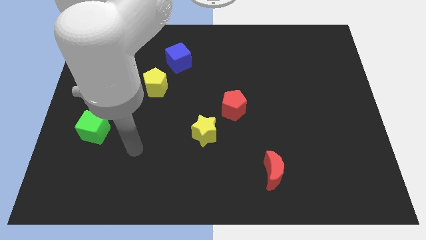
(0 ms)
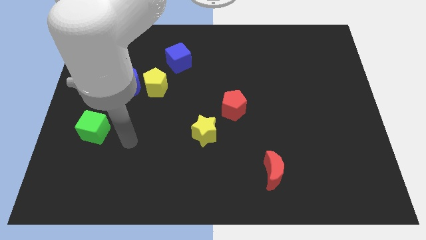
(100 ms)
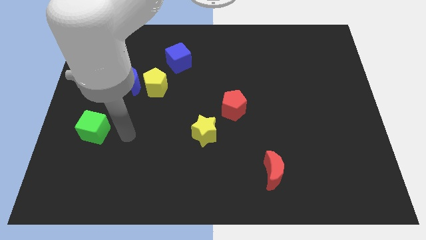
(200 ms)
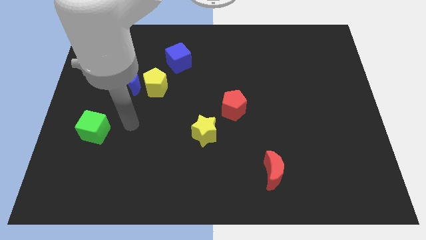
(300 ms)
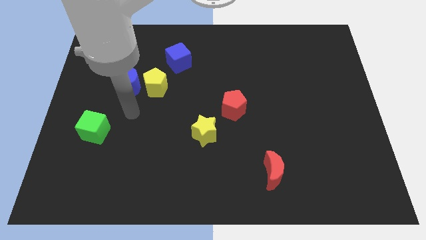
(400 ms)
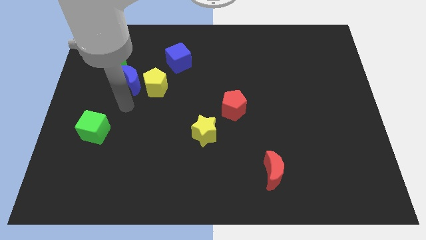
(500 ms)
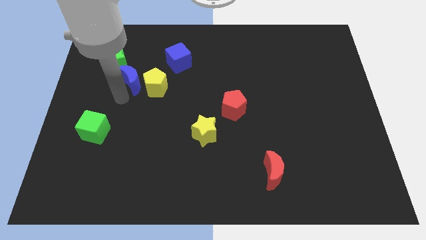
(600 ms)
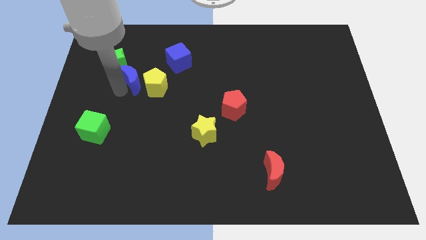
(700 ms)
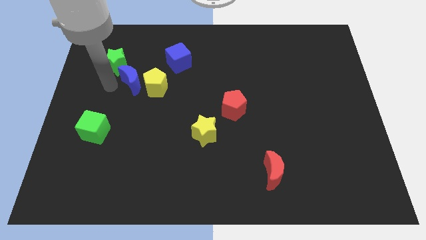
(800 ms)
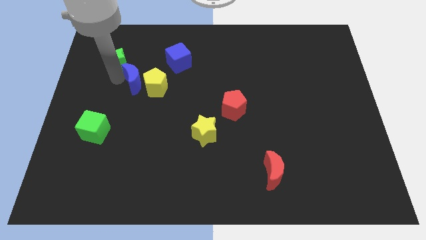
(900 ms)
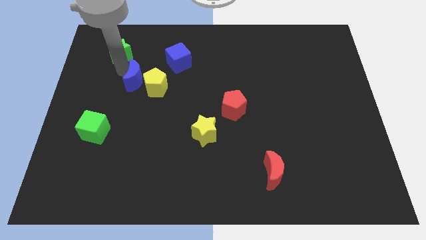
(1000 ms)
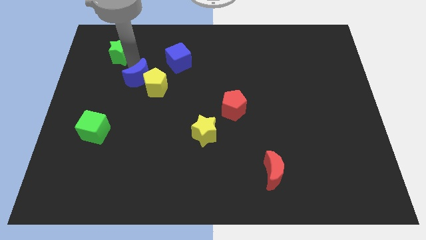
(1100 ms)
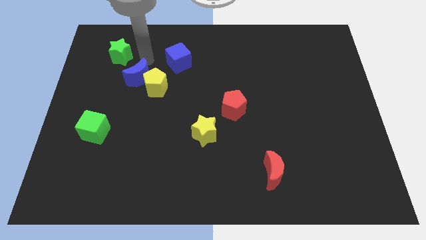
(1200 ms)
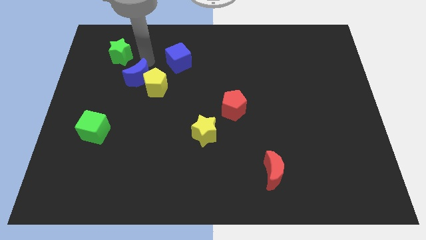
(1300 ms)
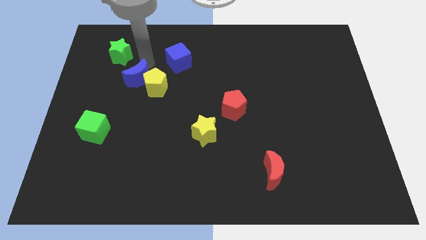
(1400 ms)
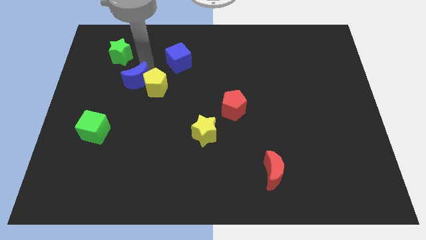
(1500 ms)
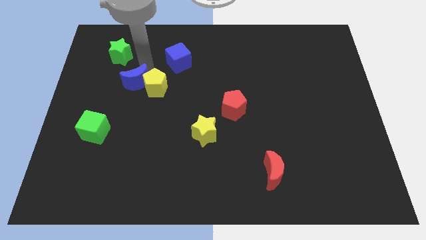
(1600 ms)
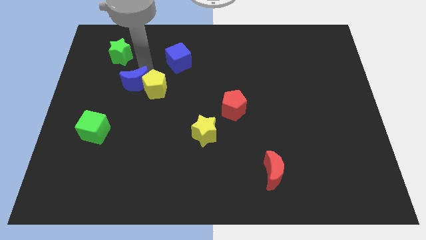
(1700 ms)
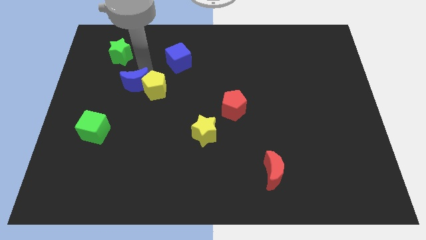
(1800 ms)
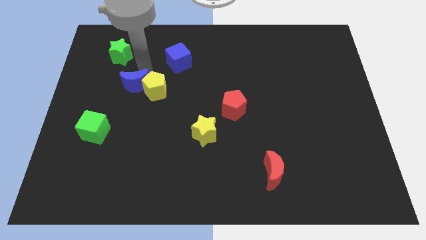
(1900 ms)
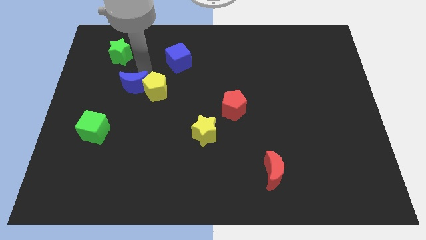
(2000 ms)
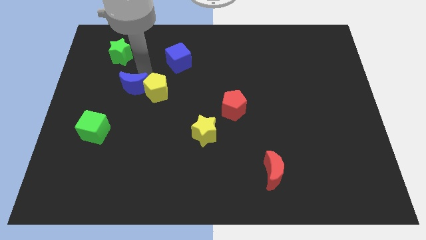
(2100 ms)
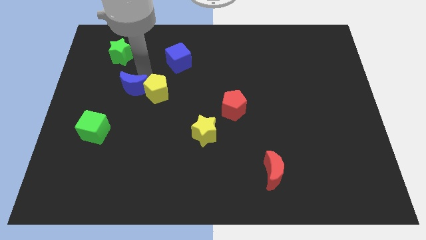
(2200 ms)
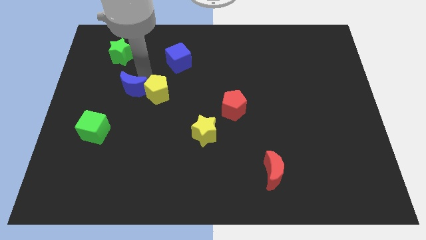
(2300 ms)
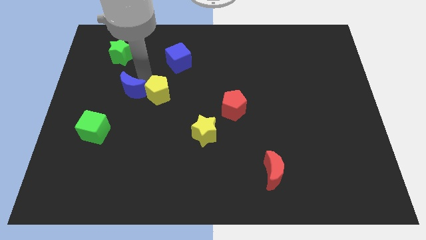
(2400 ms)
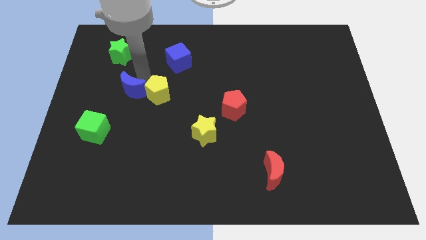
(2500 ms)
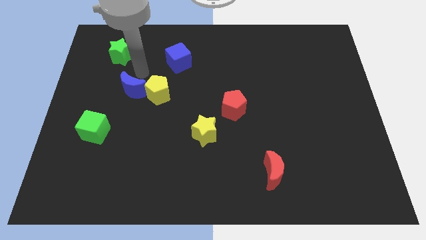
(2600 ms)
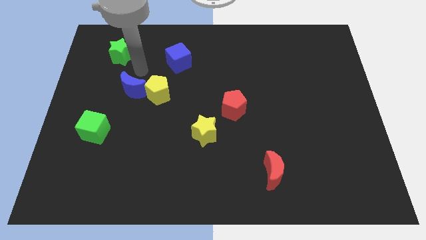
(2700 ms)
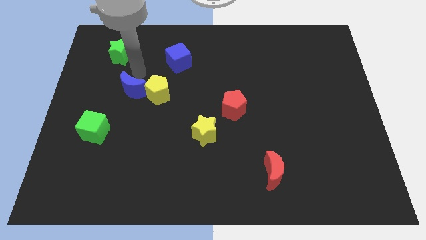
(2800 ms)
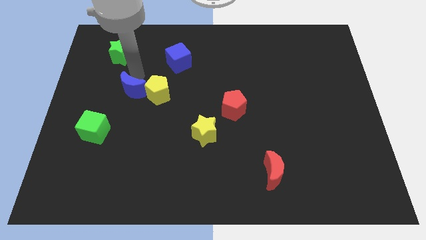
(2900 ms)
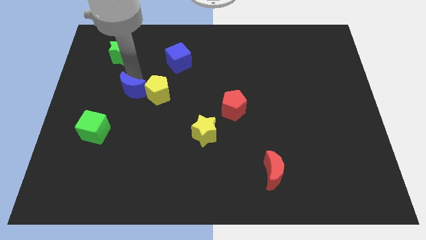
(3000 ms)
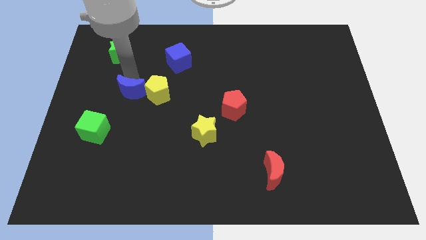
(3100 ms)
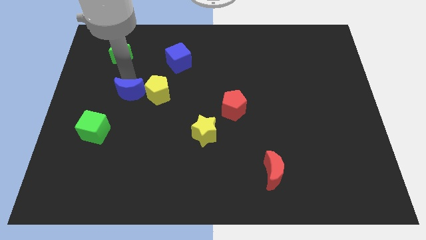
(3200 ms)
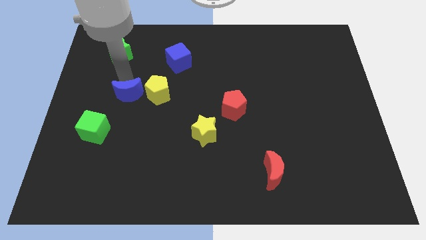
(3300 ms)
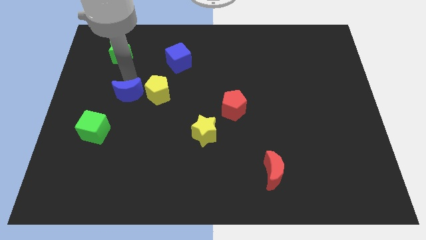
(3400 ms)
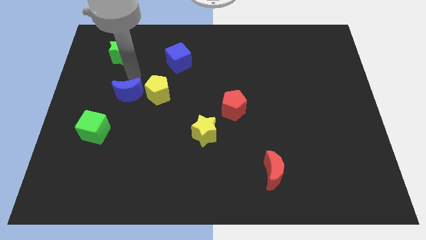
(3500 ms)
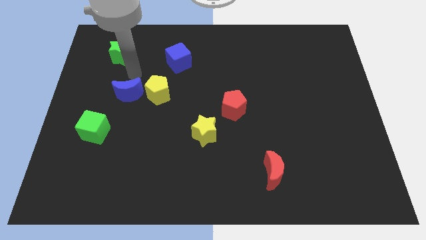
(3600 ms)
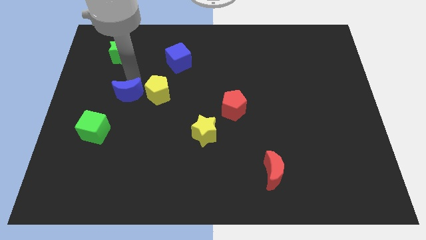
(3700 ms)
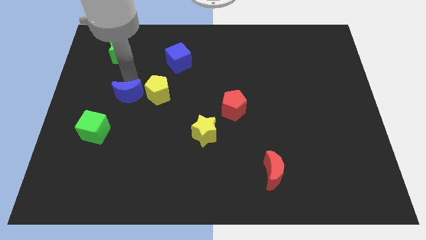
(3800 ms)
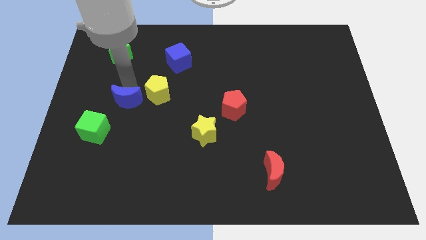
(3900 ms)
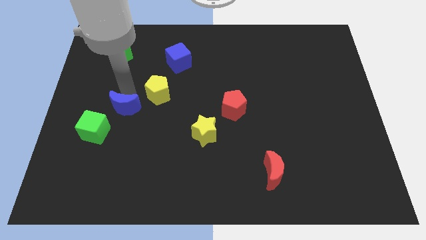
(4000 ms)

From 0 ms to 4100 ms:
slide the blue moon a bit downwards

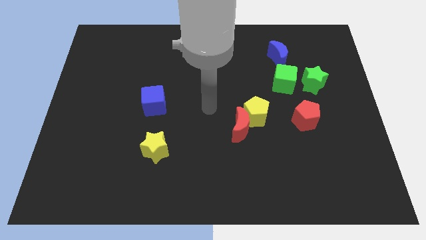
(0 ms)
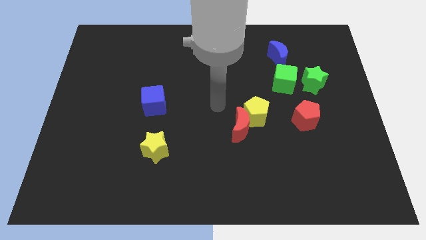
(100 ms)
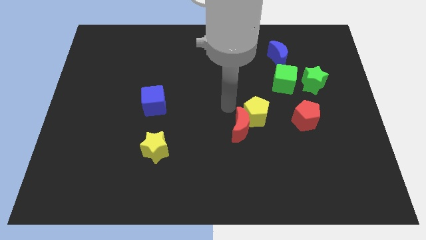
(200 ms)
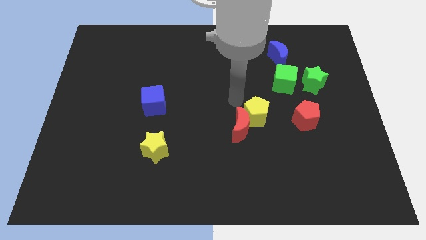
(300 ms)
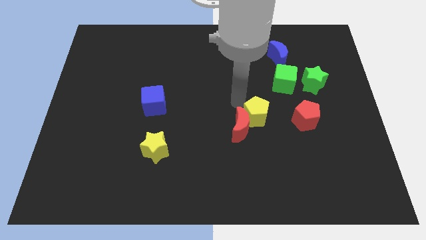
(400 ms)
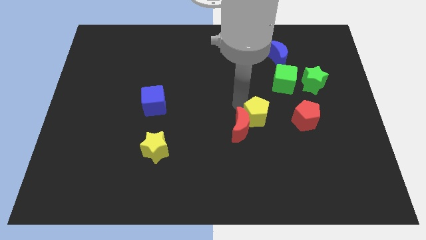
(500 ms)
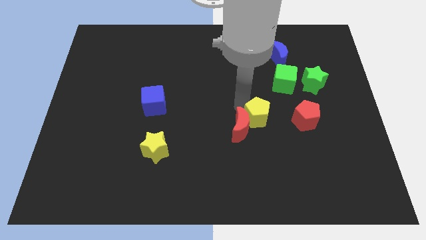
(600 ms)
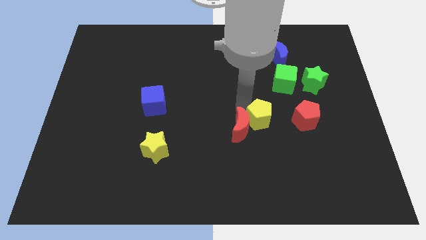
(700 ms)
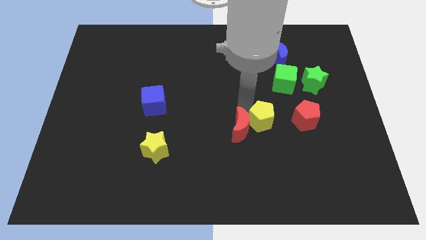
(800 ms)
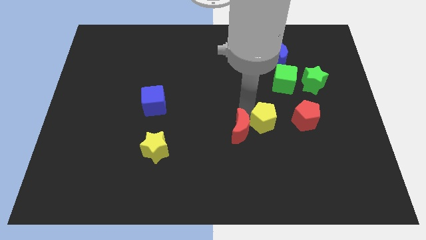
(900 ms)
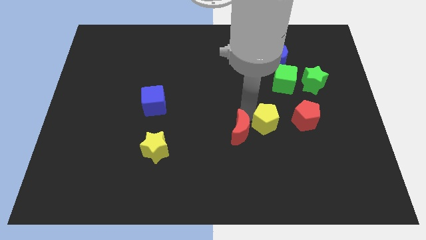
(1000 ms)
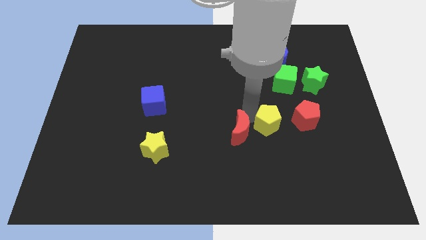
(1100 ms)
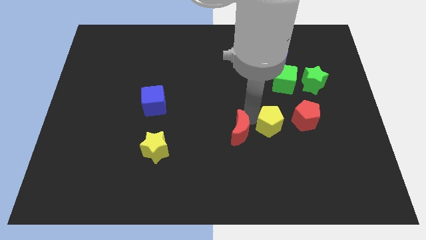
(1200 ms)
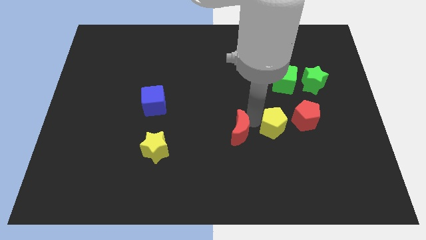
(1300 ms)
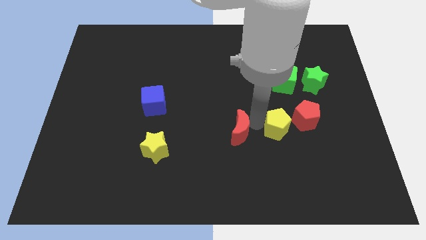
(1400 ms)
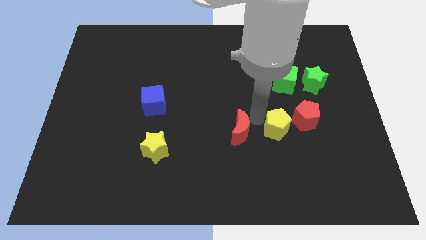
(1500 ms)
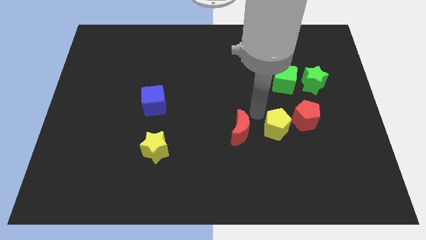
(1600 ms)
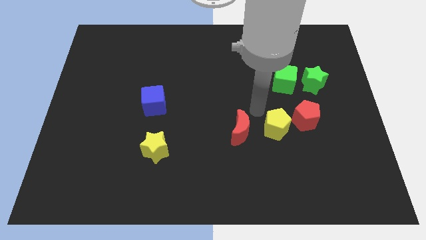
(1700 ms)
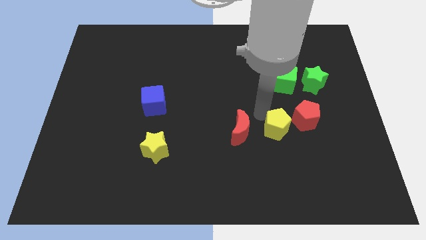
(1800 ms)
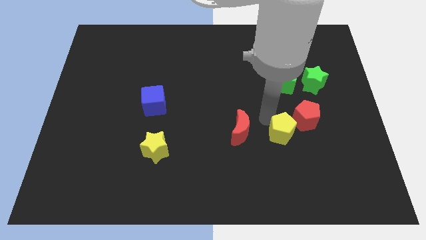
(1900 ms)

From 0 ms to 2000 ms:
slide the yellow pentagon down and then right somewhat

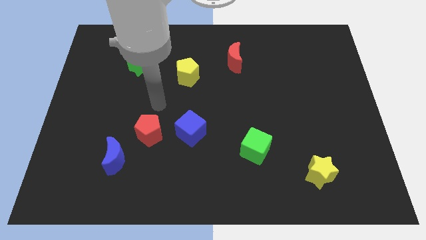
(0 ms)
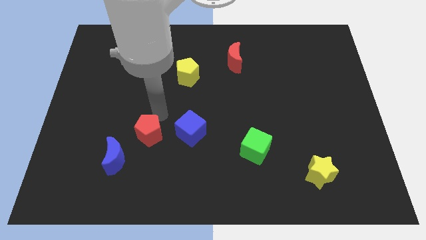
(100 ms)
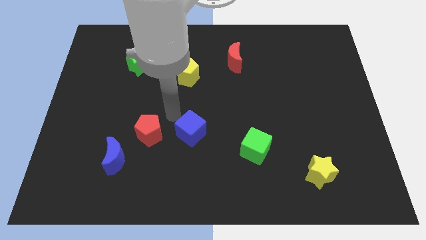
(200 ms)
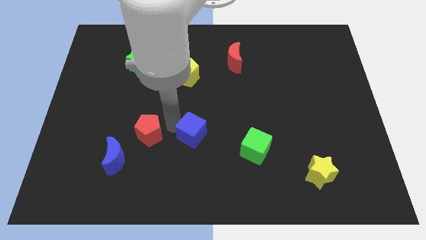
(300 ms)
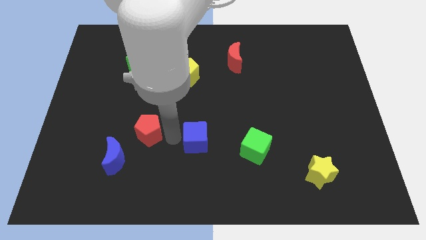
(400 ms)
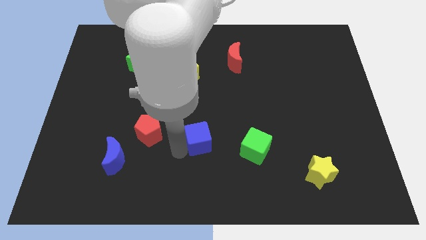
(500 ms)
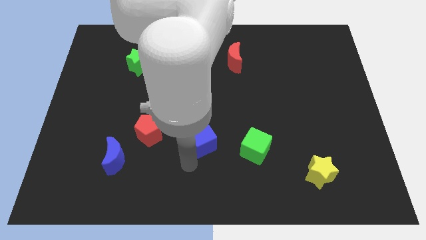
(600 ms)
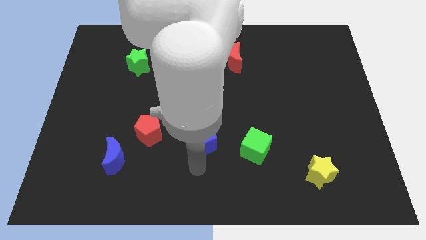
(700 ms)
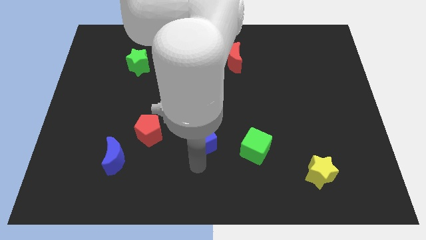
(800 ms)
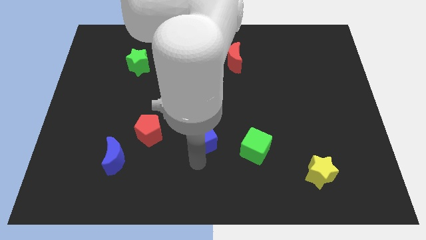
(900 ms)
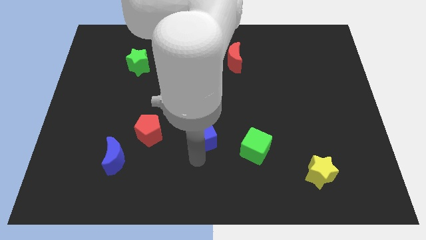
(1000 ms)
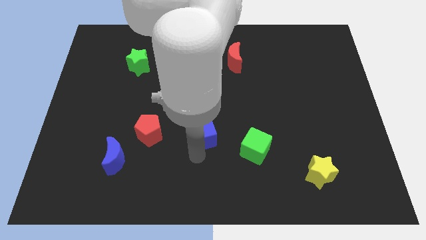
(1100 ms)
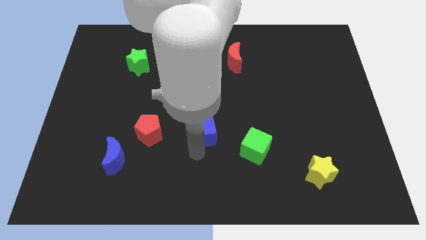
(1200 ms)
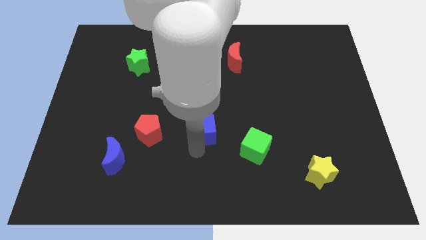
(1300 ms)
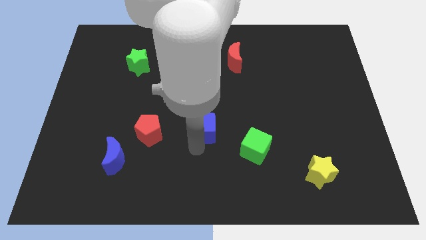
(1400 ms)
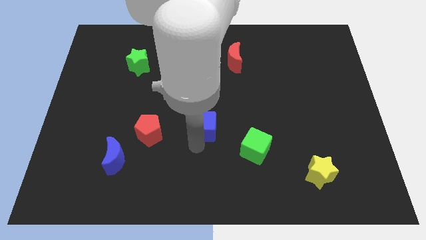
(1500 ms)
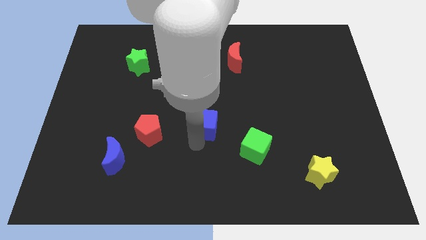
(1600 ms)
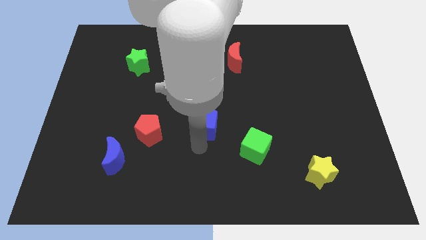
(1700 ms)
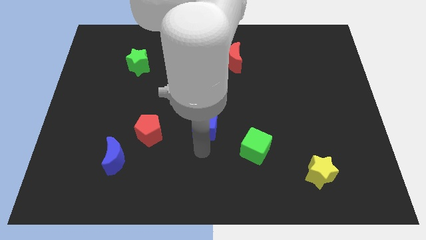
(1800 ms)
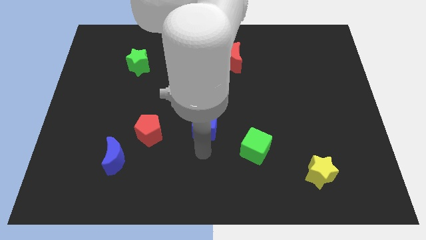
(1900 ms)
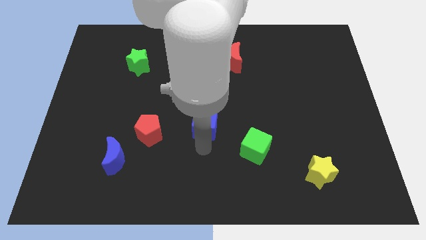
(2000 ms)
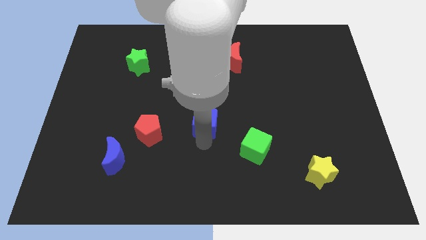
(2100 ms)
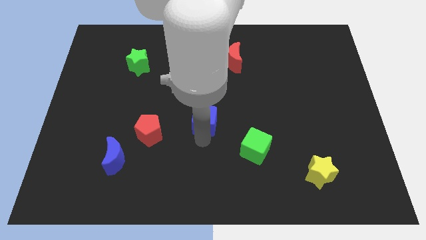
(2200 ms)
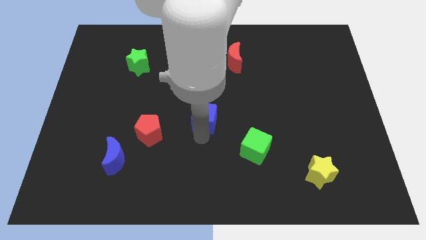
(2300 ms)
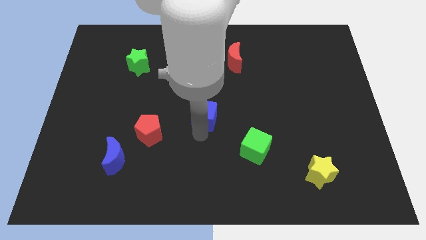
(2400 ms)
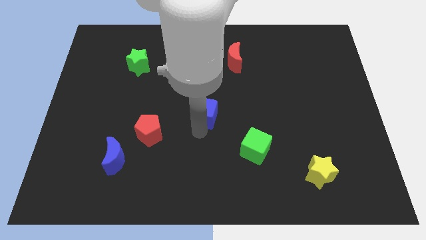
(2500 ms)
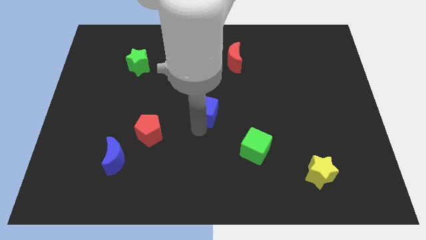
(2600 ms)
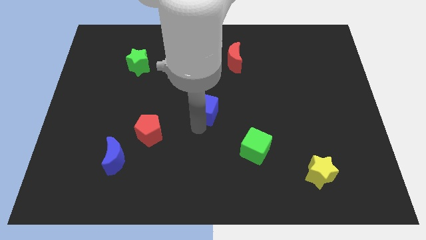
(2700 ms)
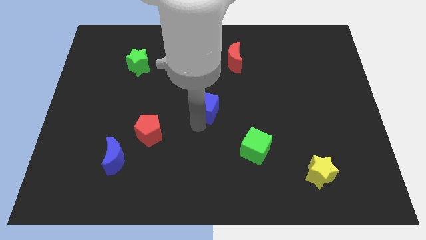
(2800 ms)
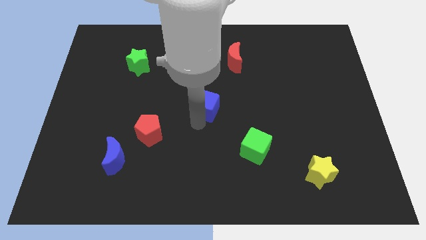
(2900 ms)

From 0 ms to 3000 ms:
slightly move the blue cube up and right diagonally
